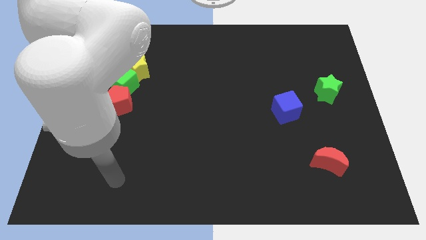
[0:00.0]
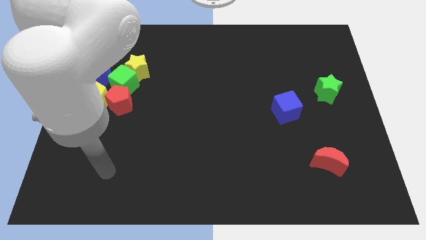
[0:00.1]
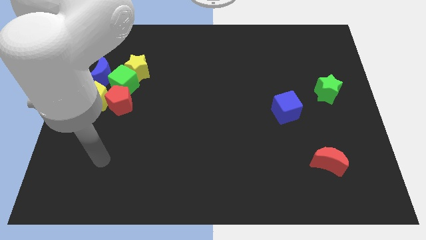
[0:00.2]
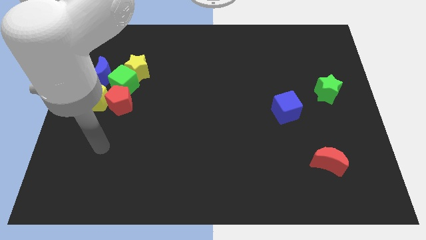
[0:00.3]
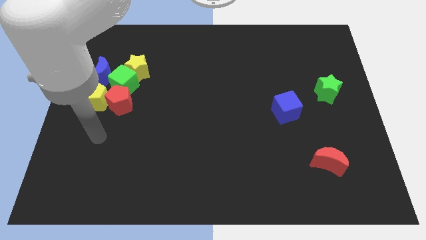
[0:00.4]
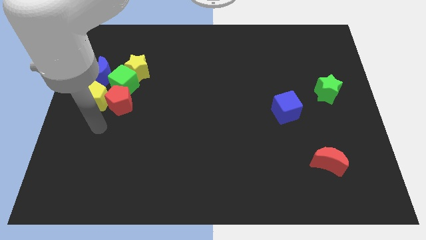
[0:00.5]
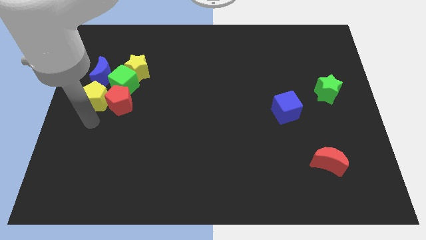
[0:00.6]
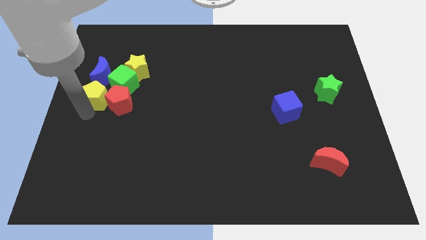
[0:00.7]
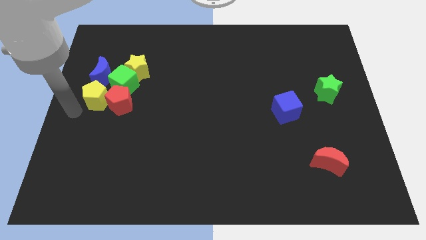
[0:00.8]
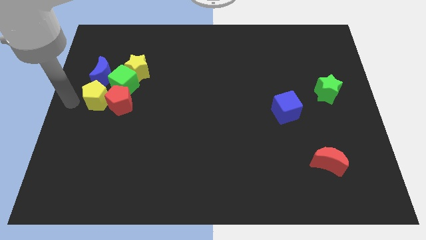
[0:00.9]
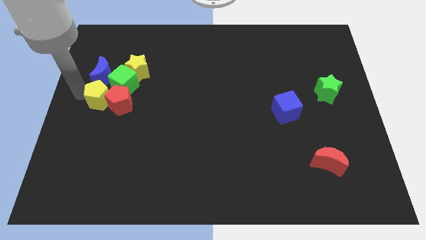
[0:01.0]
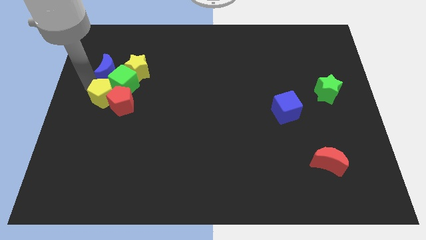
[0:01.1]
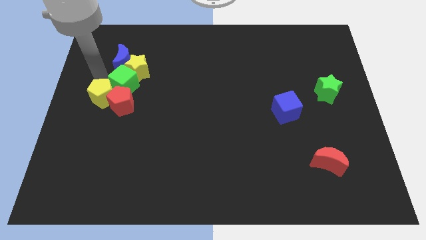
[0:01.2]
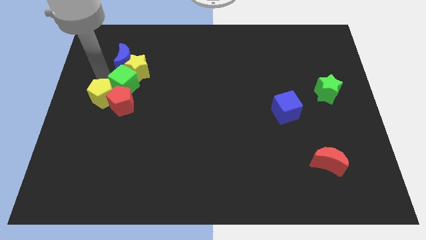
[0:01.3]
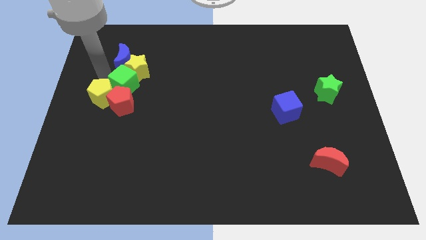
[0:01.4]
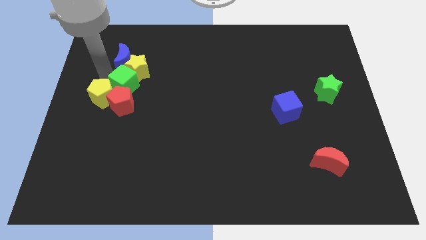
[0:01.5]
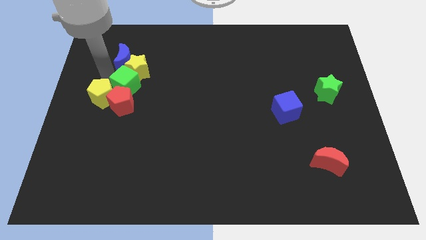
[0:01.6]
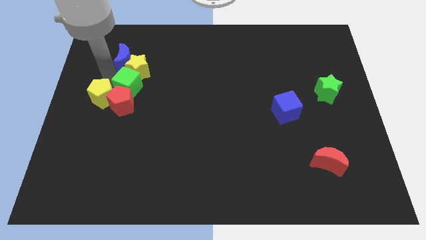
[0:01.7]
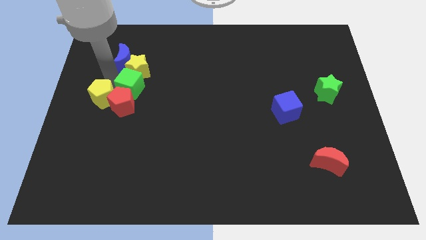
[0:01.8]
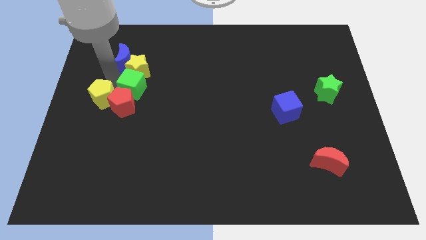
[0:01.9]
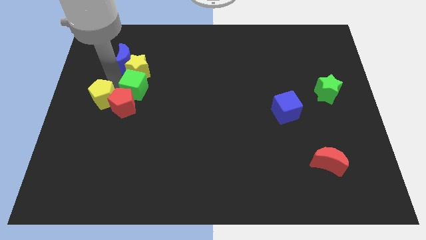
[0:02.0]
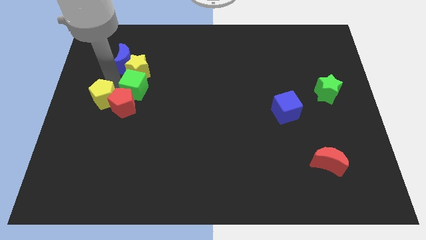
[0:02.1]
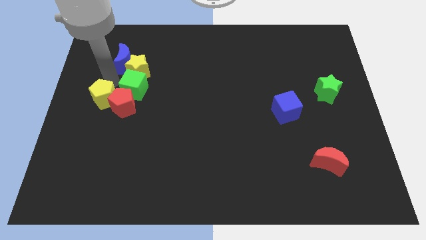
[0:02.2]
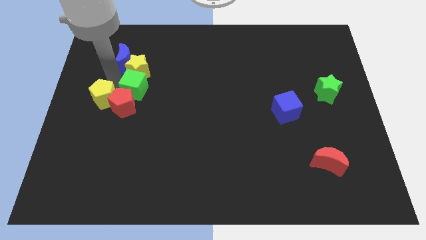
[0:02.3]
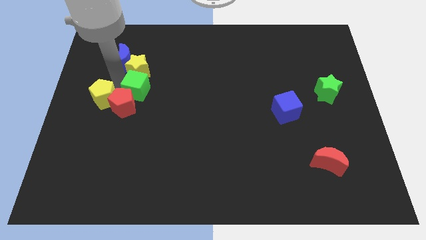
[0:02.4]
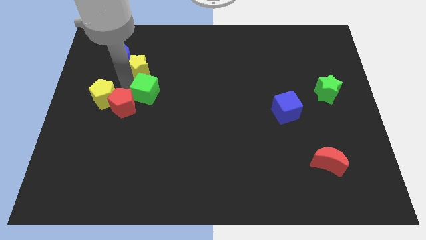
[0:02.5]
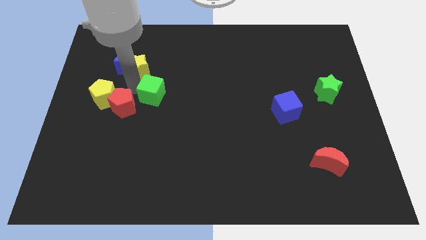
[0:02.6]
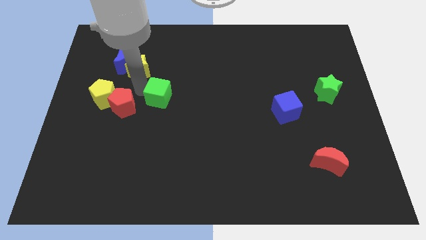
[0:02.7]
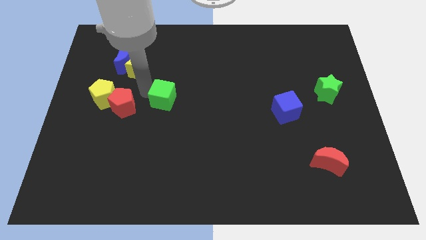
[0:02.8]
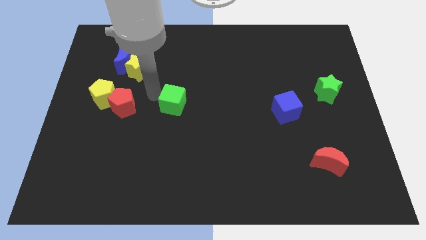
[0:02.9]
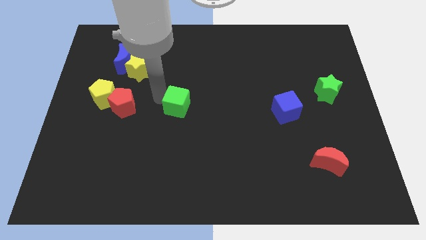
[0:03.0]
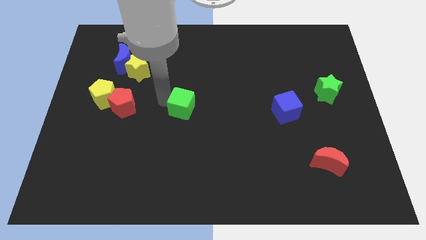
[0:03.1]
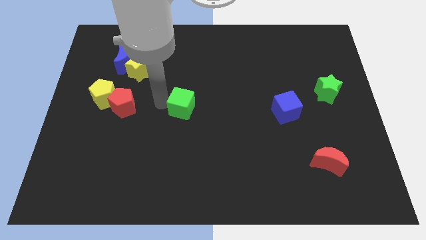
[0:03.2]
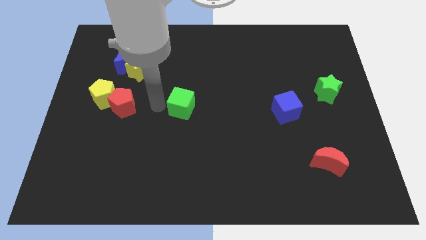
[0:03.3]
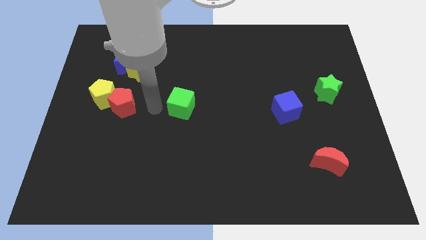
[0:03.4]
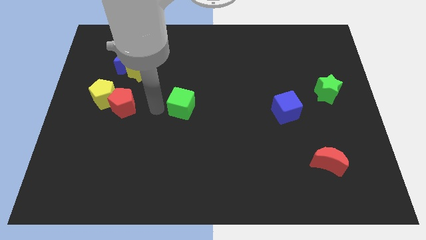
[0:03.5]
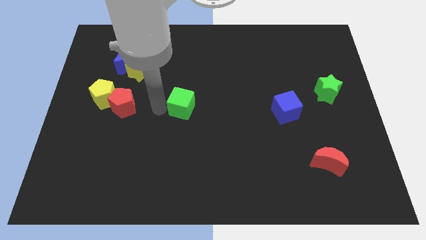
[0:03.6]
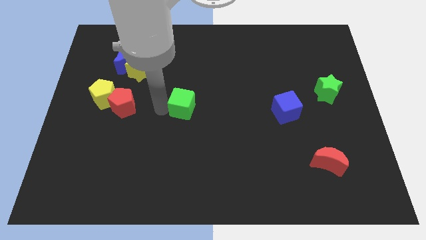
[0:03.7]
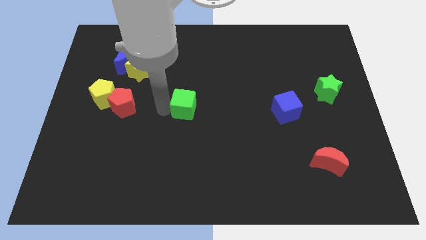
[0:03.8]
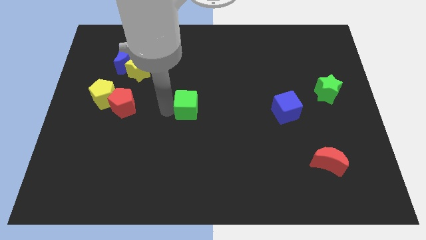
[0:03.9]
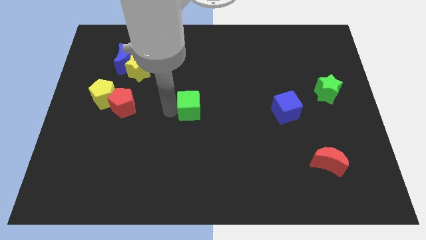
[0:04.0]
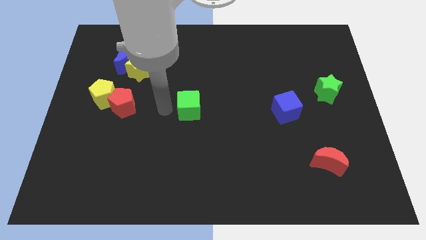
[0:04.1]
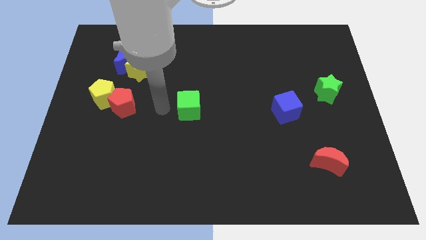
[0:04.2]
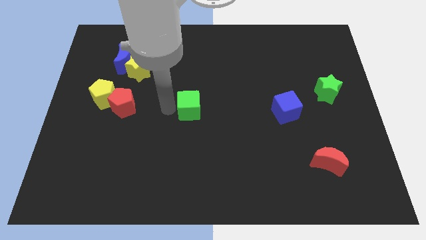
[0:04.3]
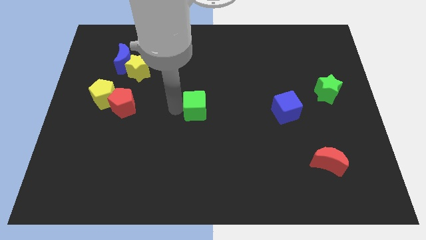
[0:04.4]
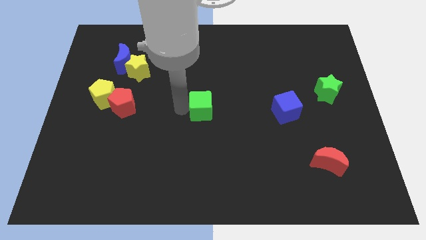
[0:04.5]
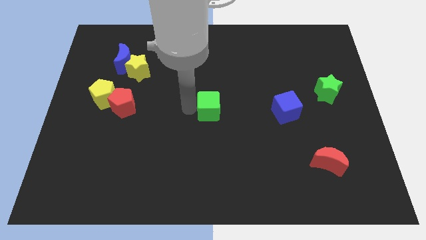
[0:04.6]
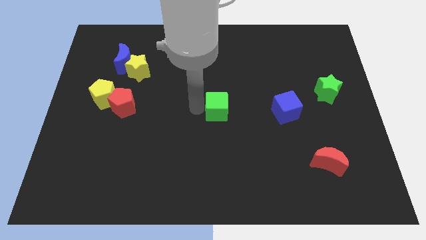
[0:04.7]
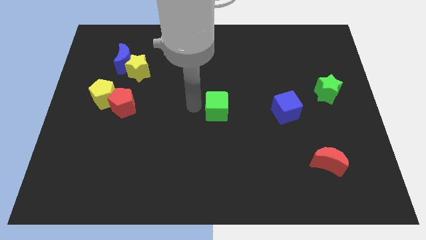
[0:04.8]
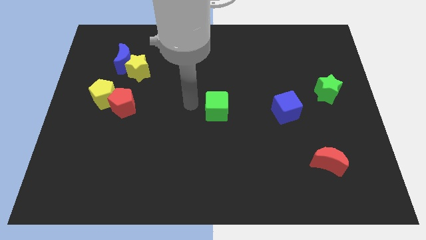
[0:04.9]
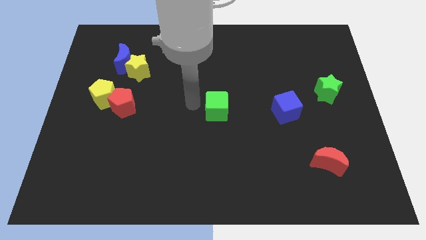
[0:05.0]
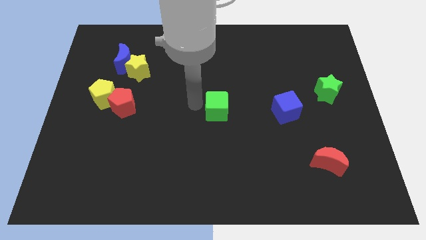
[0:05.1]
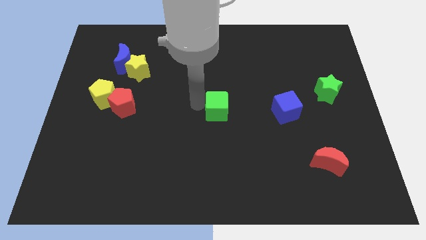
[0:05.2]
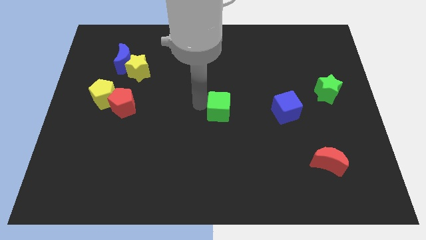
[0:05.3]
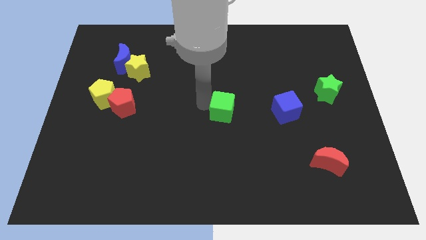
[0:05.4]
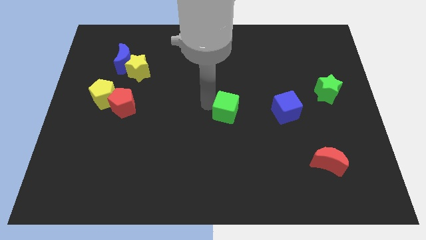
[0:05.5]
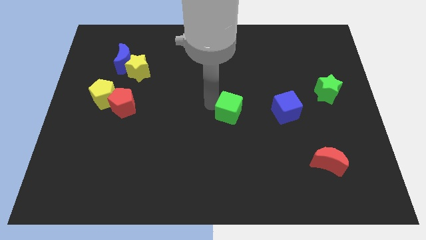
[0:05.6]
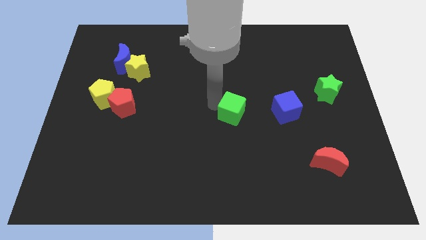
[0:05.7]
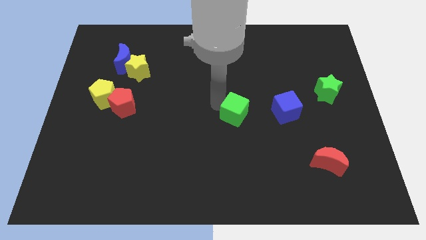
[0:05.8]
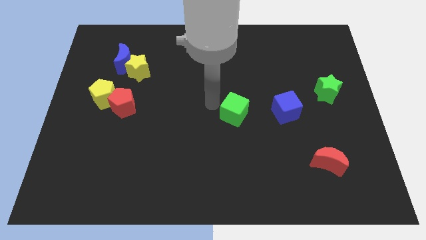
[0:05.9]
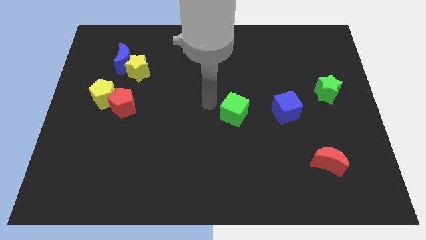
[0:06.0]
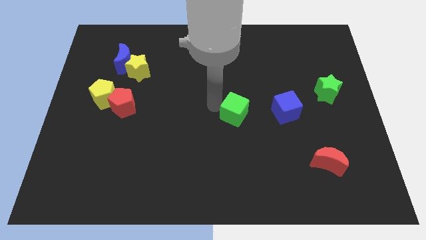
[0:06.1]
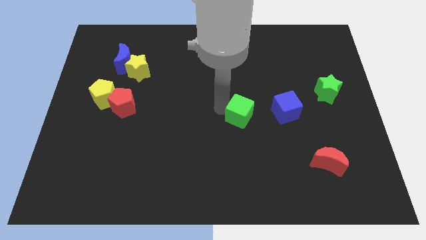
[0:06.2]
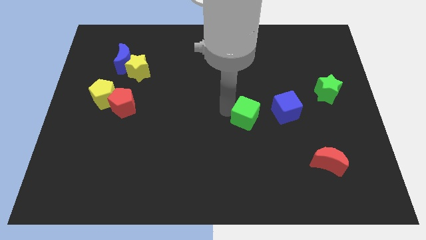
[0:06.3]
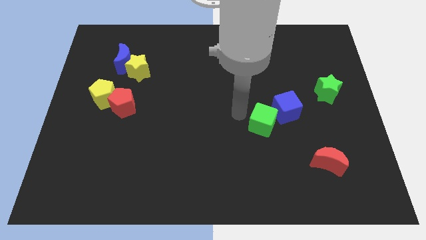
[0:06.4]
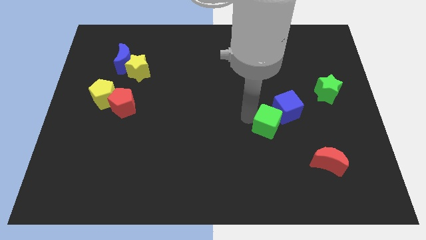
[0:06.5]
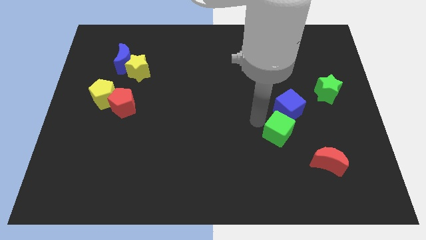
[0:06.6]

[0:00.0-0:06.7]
slide the green cube diagonally up and to the left of the red moon

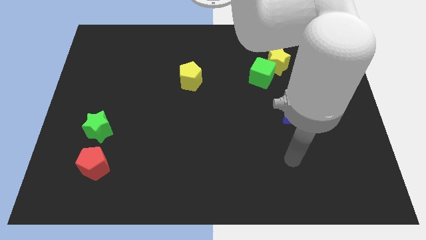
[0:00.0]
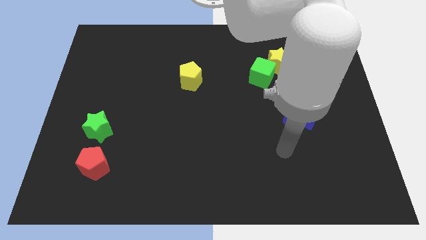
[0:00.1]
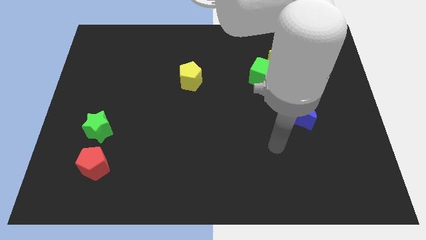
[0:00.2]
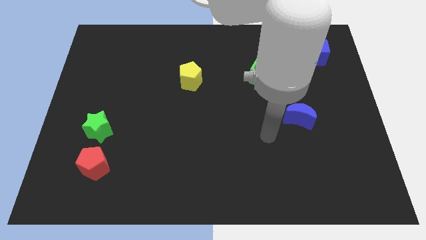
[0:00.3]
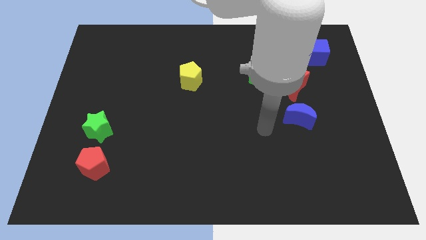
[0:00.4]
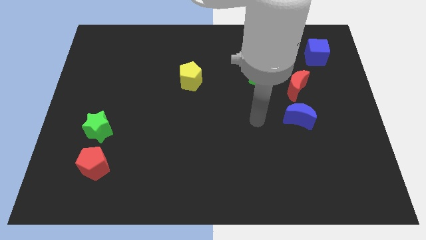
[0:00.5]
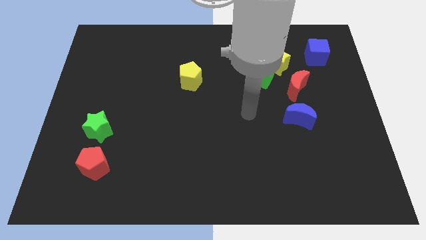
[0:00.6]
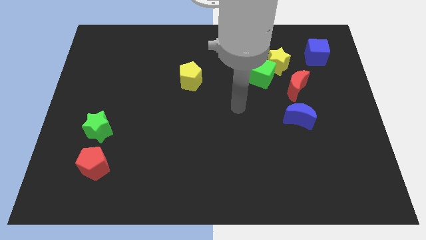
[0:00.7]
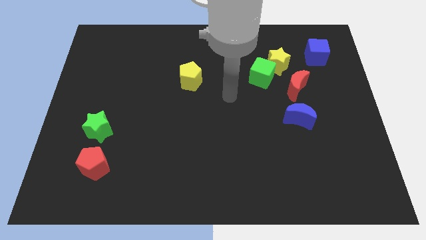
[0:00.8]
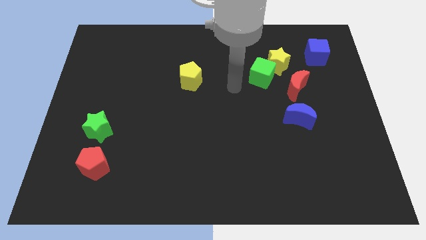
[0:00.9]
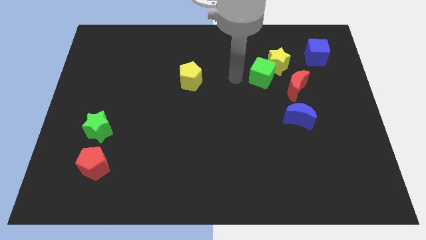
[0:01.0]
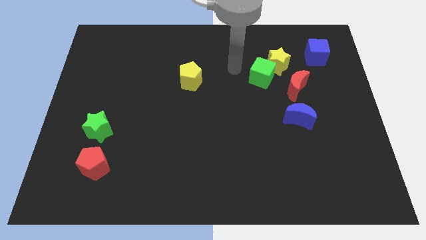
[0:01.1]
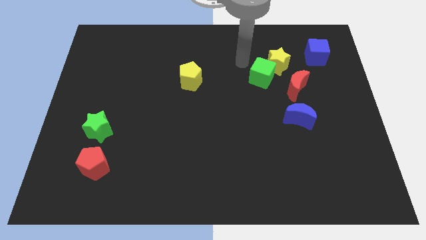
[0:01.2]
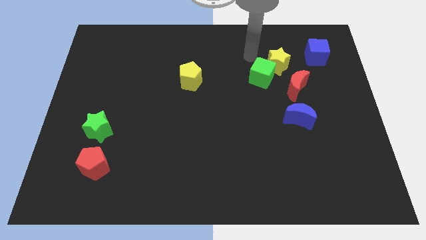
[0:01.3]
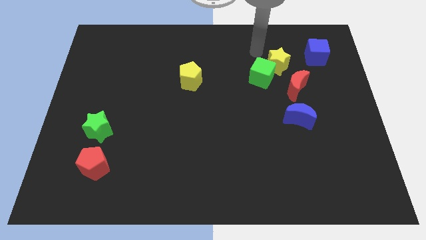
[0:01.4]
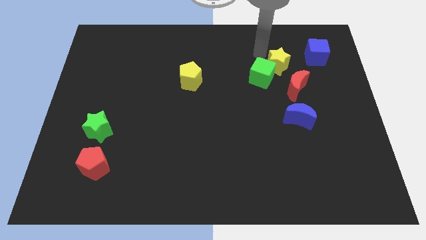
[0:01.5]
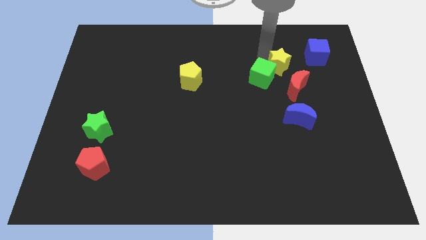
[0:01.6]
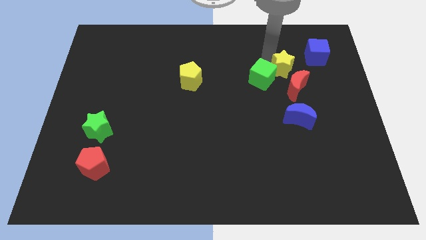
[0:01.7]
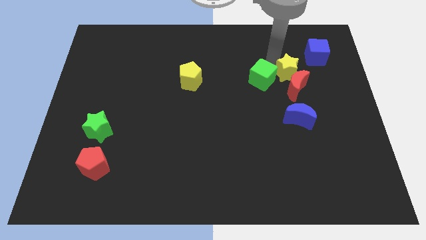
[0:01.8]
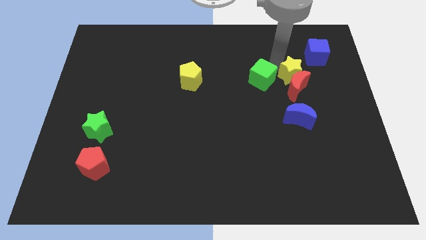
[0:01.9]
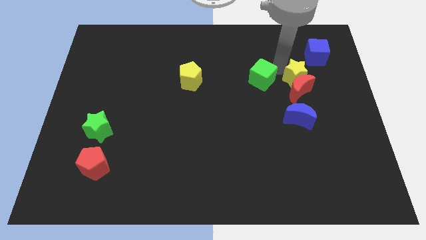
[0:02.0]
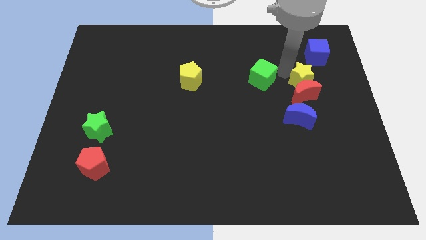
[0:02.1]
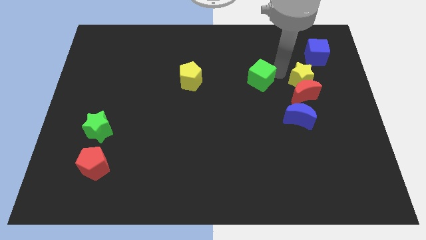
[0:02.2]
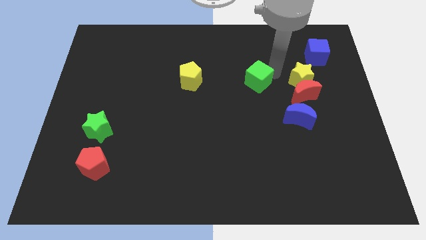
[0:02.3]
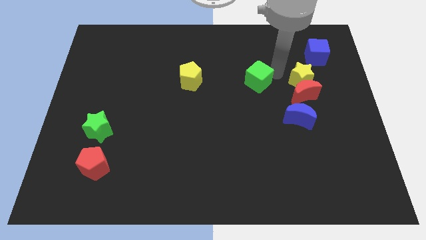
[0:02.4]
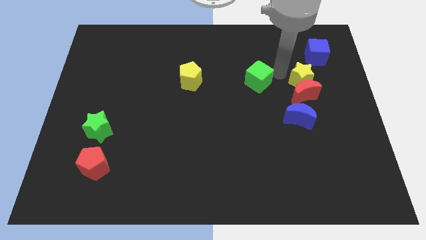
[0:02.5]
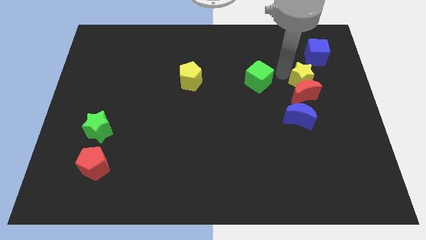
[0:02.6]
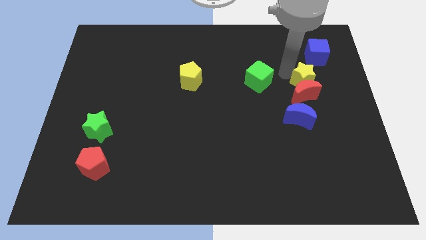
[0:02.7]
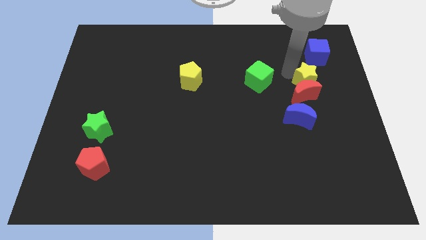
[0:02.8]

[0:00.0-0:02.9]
slide the yellow star below the blue cube
